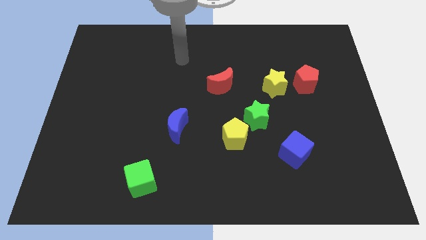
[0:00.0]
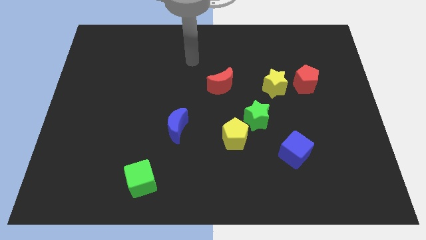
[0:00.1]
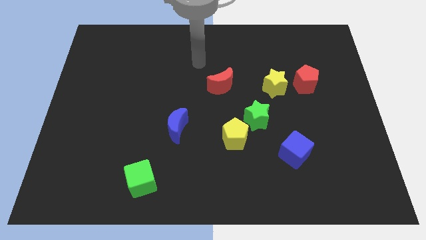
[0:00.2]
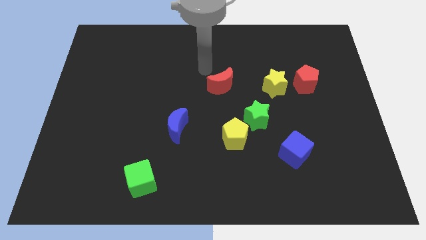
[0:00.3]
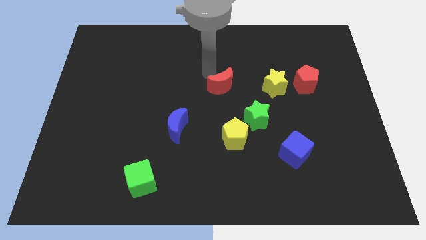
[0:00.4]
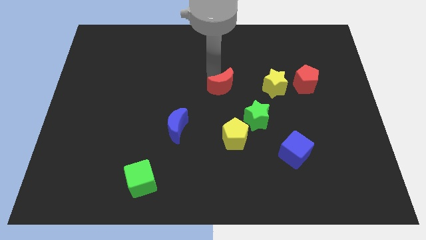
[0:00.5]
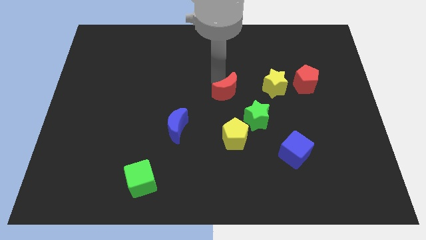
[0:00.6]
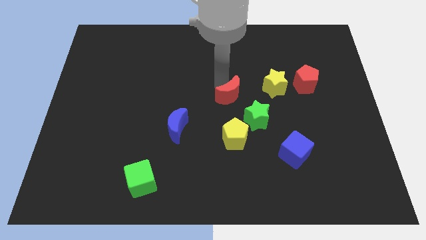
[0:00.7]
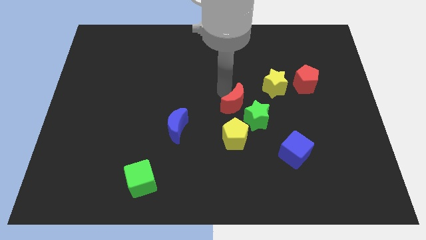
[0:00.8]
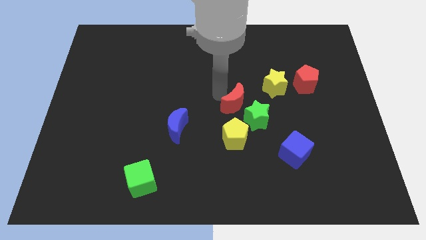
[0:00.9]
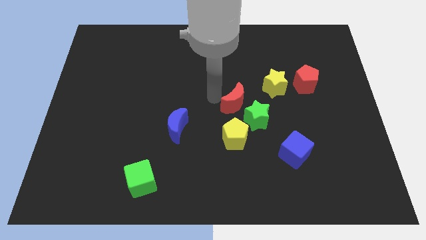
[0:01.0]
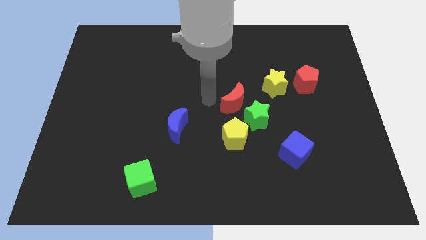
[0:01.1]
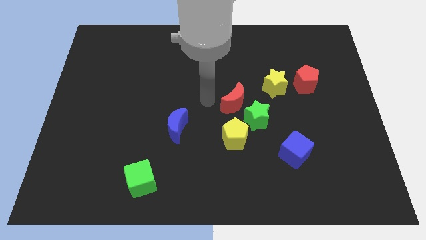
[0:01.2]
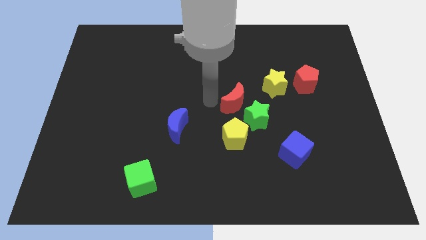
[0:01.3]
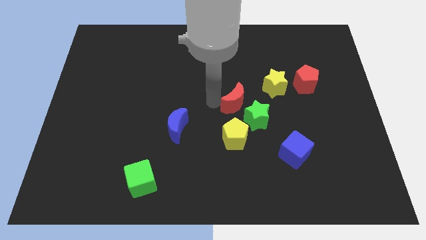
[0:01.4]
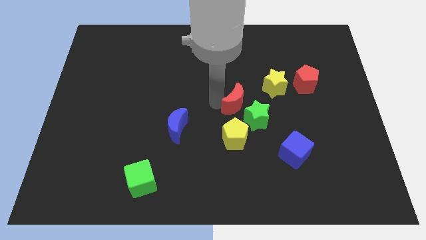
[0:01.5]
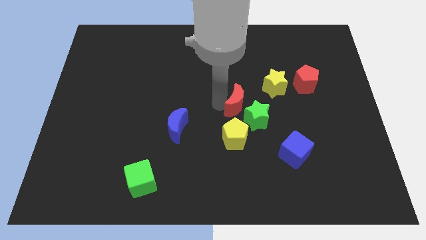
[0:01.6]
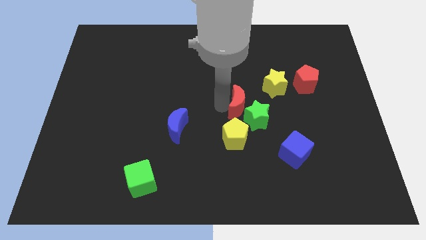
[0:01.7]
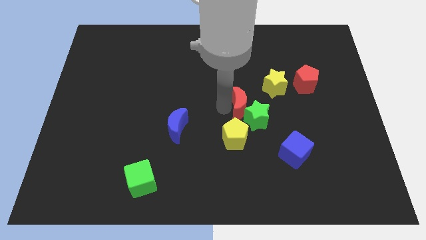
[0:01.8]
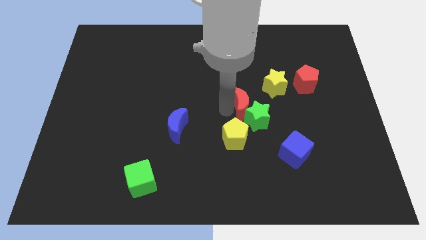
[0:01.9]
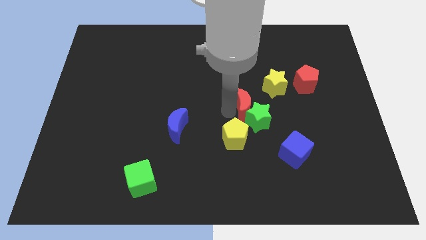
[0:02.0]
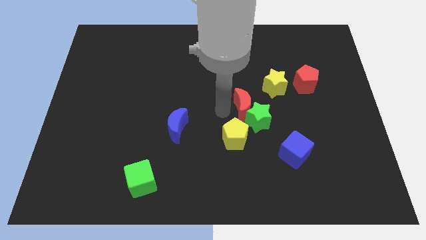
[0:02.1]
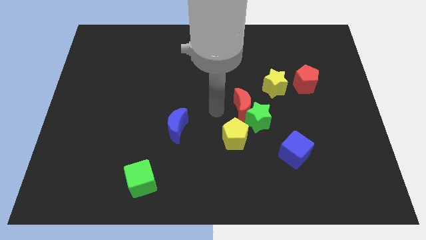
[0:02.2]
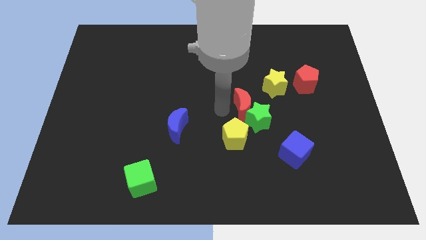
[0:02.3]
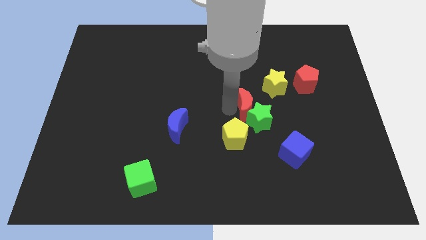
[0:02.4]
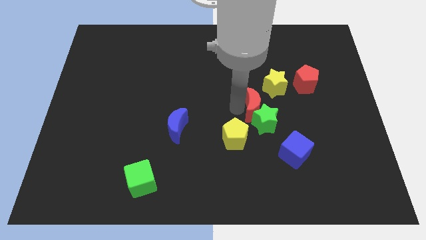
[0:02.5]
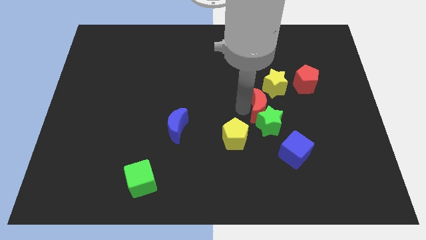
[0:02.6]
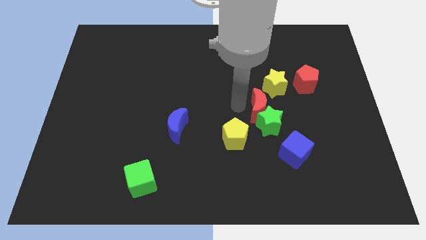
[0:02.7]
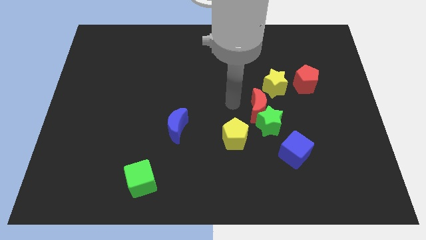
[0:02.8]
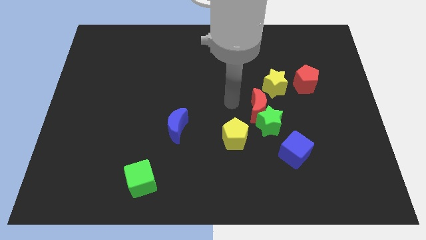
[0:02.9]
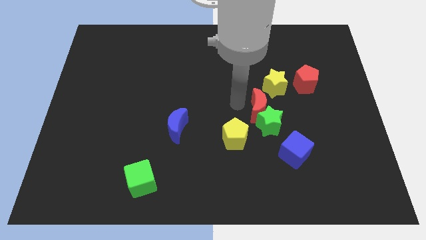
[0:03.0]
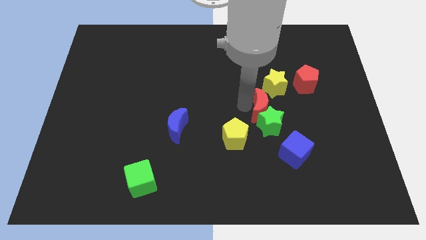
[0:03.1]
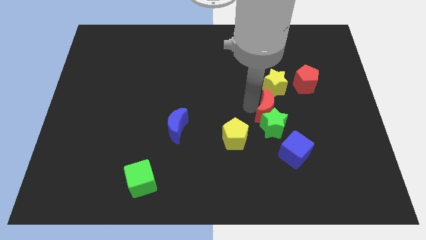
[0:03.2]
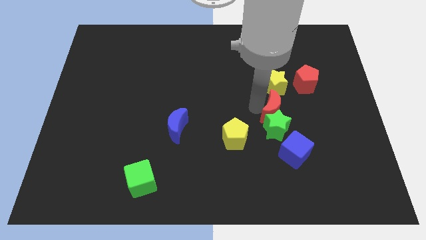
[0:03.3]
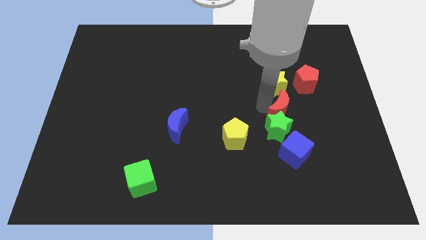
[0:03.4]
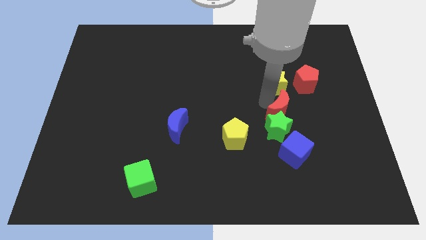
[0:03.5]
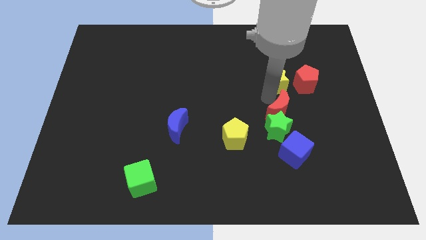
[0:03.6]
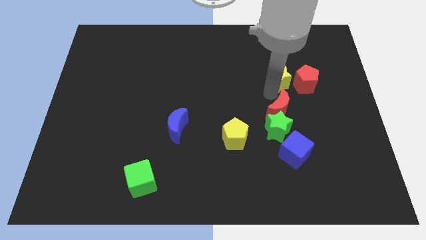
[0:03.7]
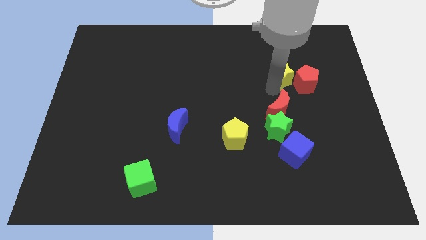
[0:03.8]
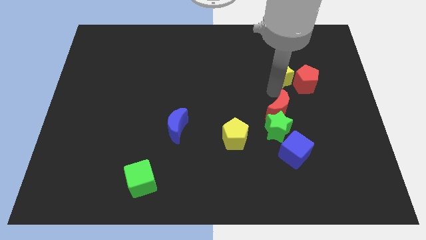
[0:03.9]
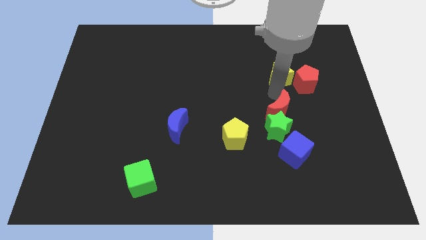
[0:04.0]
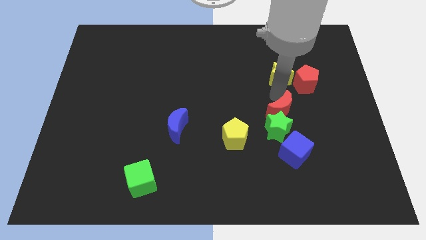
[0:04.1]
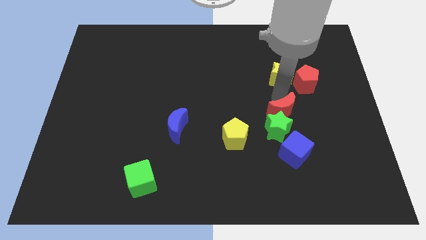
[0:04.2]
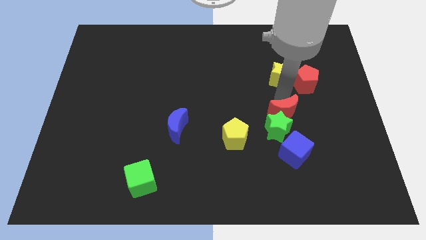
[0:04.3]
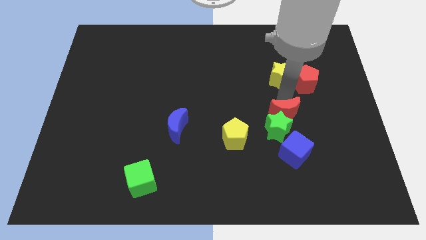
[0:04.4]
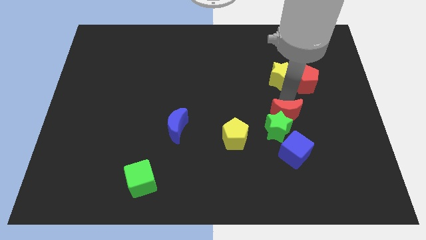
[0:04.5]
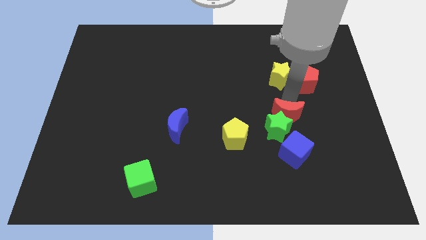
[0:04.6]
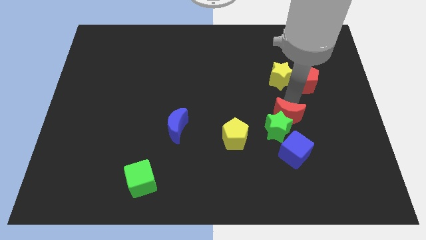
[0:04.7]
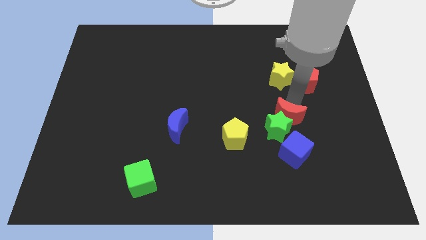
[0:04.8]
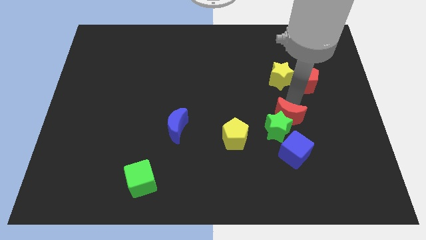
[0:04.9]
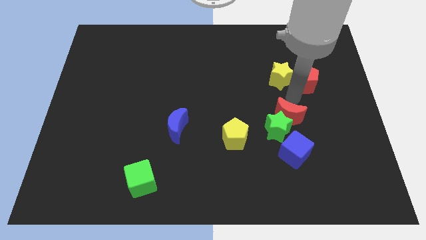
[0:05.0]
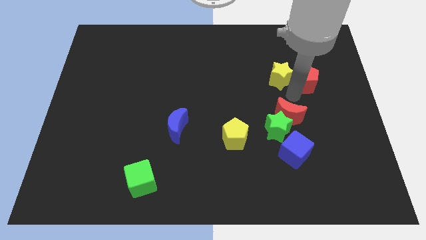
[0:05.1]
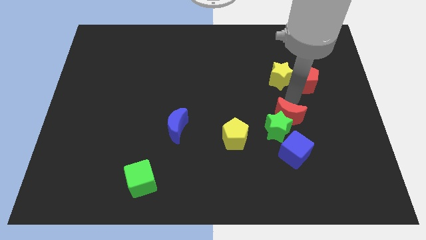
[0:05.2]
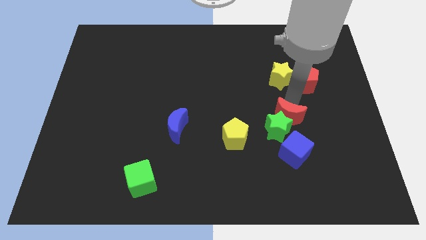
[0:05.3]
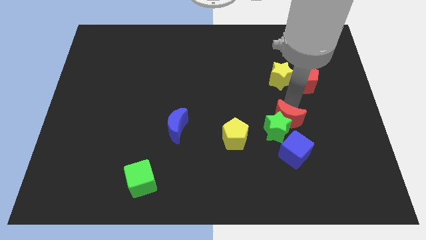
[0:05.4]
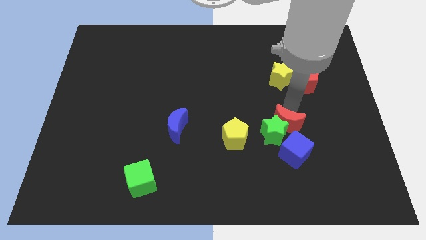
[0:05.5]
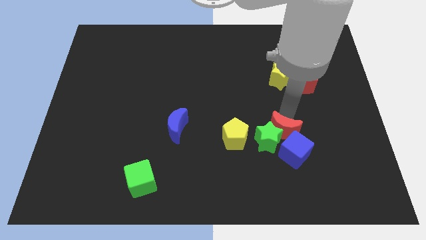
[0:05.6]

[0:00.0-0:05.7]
put the red moon to the blue cube

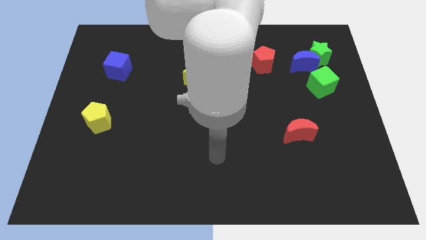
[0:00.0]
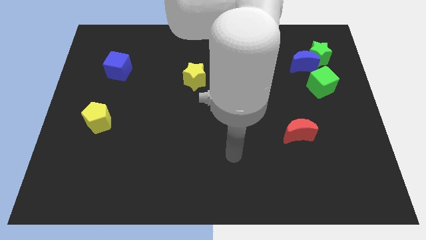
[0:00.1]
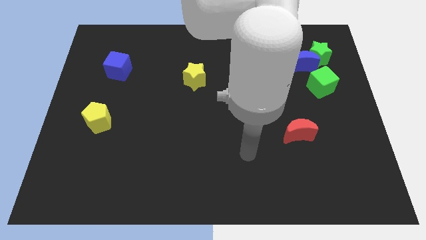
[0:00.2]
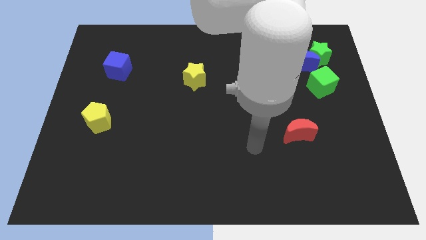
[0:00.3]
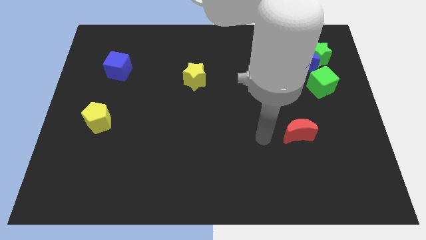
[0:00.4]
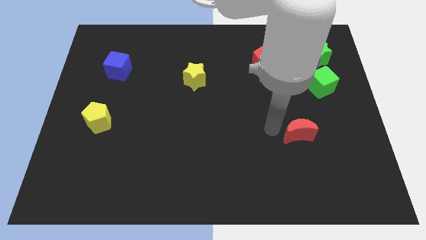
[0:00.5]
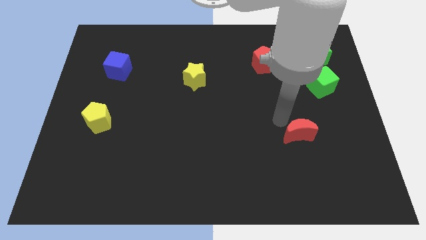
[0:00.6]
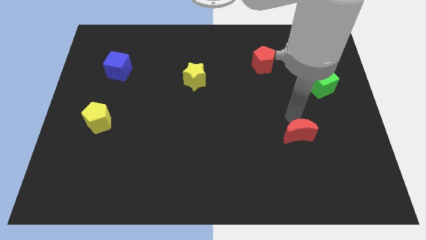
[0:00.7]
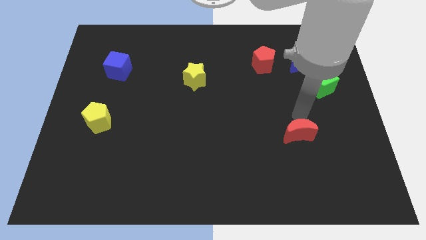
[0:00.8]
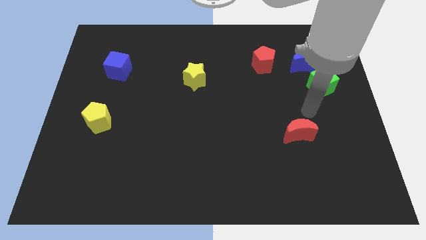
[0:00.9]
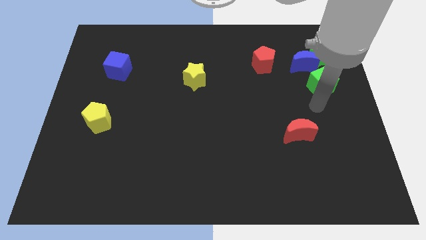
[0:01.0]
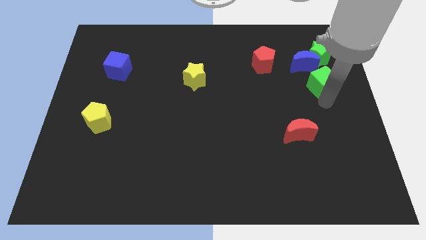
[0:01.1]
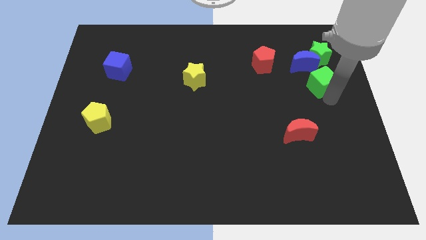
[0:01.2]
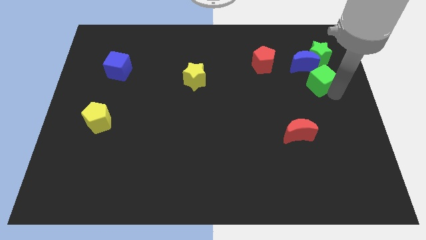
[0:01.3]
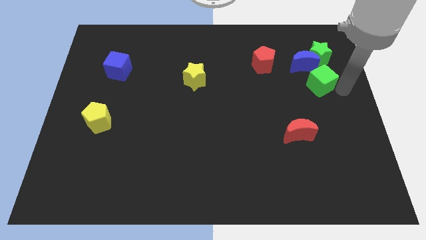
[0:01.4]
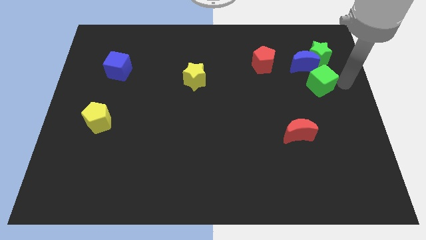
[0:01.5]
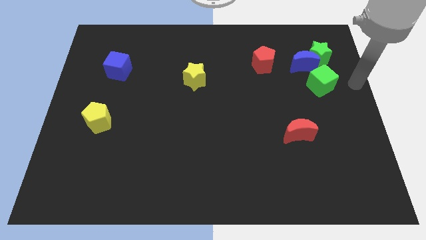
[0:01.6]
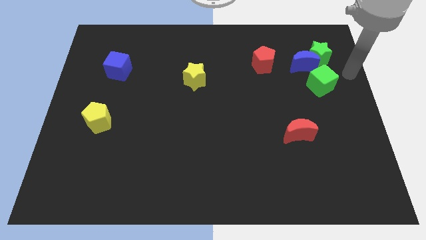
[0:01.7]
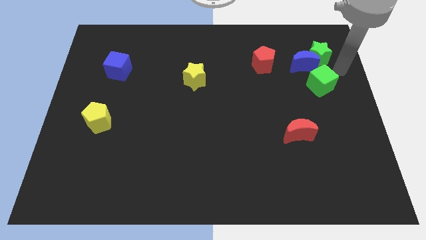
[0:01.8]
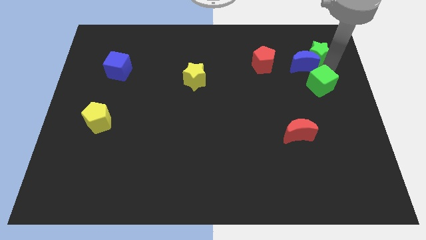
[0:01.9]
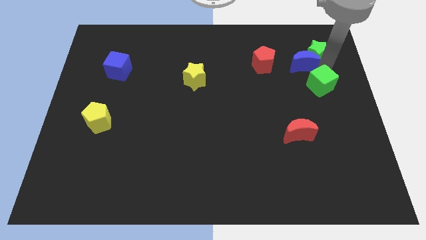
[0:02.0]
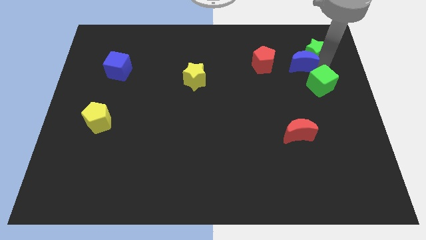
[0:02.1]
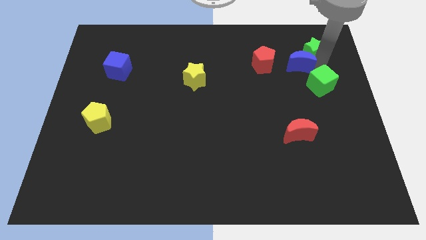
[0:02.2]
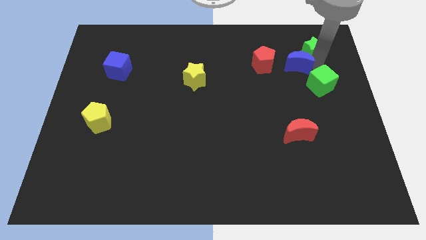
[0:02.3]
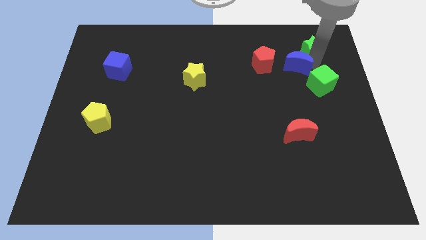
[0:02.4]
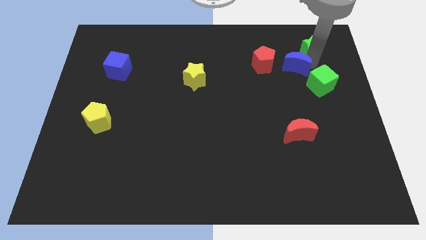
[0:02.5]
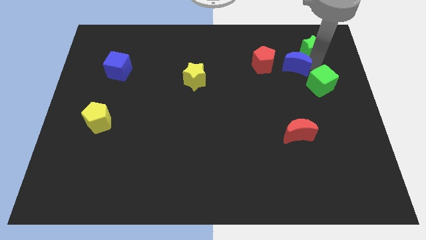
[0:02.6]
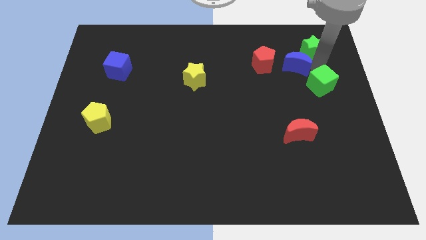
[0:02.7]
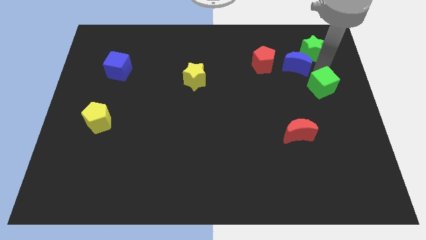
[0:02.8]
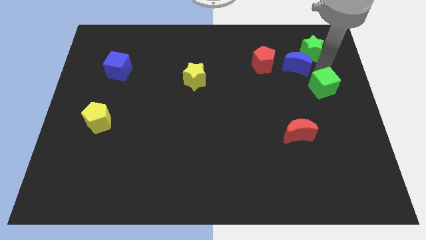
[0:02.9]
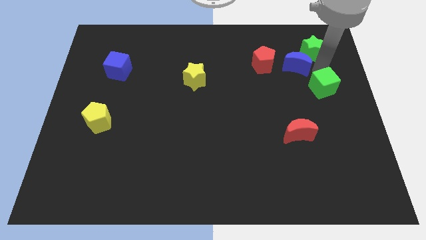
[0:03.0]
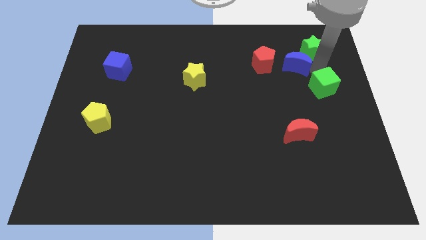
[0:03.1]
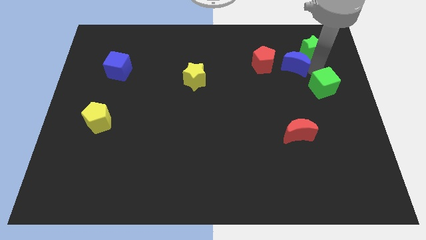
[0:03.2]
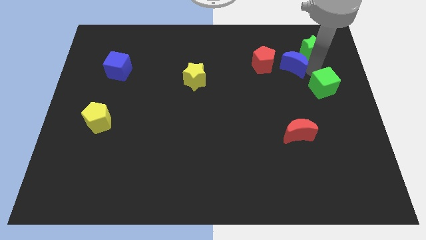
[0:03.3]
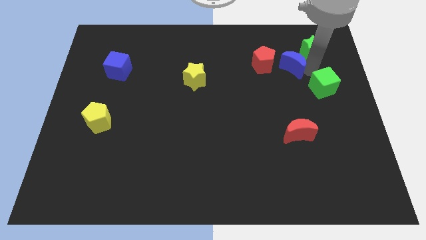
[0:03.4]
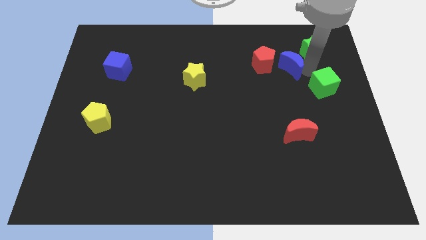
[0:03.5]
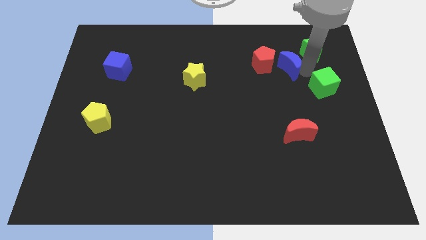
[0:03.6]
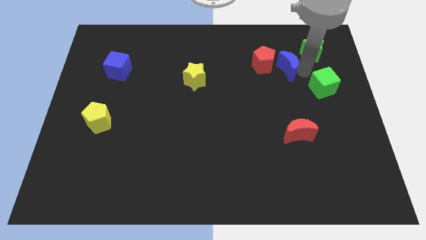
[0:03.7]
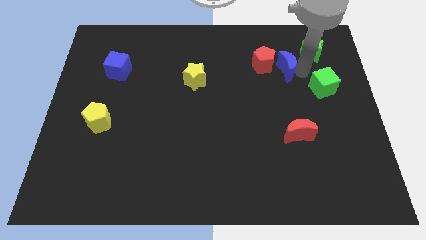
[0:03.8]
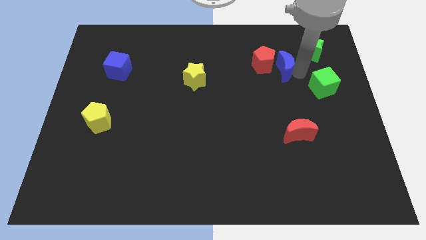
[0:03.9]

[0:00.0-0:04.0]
slide the blue moon towards the red pentagon
